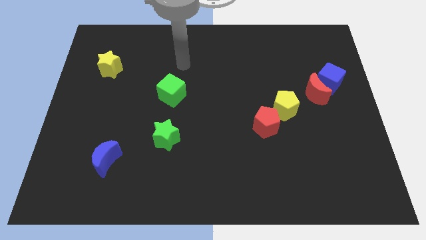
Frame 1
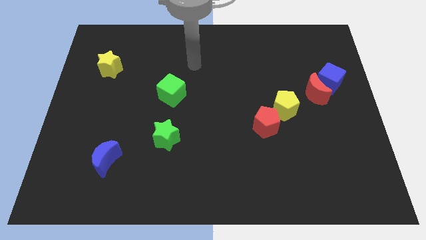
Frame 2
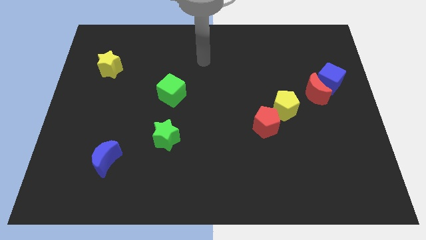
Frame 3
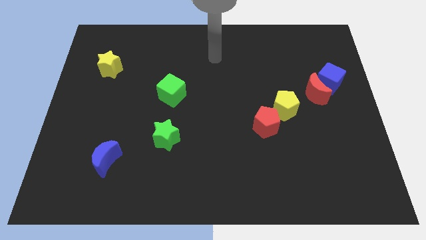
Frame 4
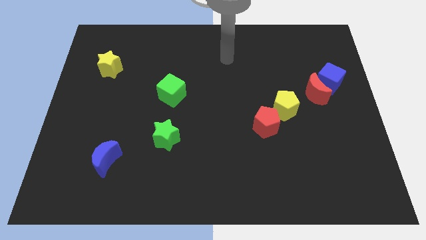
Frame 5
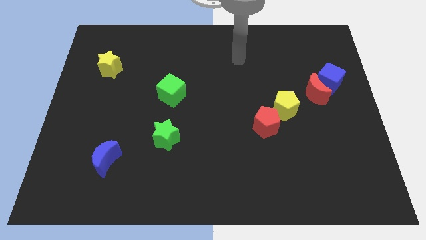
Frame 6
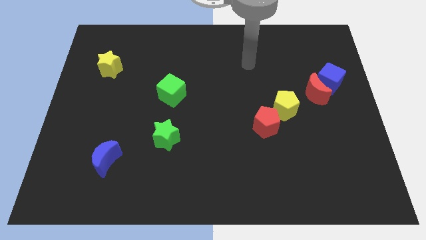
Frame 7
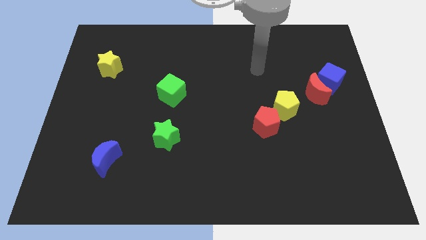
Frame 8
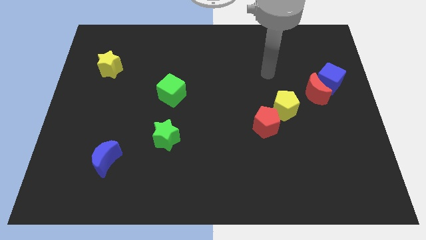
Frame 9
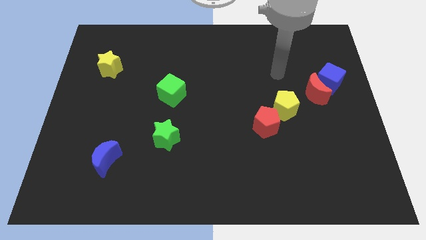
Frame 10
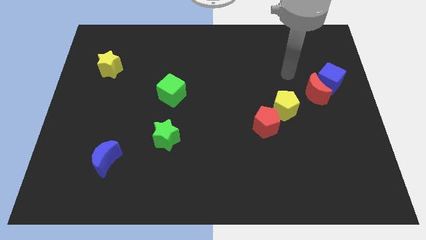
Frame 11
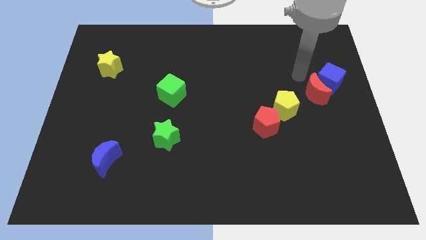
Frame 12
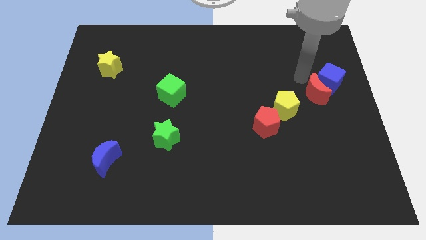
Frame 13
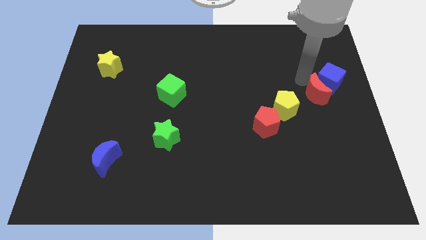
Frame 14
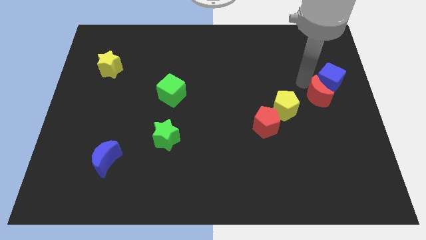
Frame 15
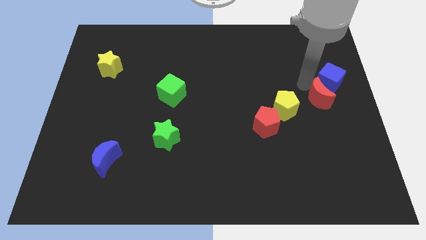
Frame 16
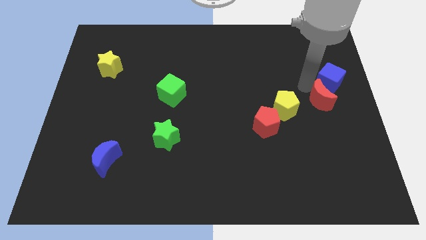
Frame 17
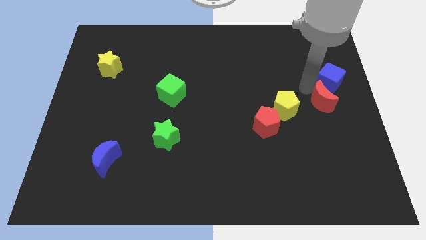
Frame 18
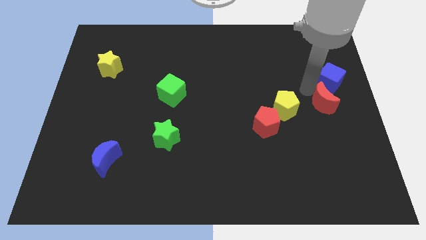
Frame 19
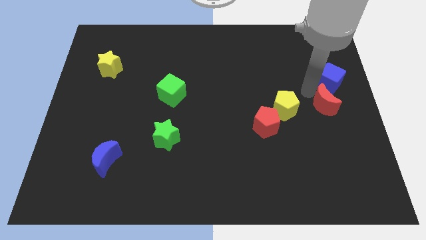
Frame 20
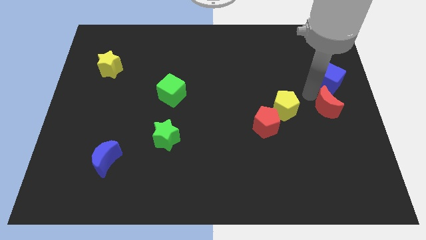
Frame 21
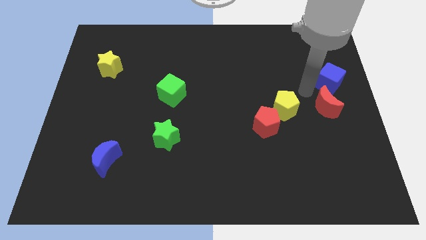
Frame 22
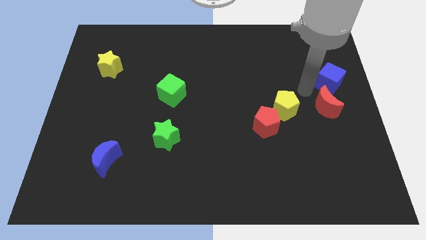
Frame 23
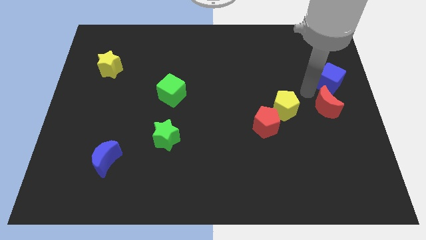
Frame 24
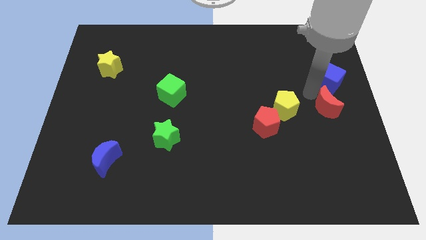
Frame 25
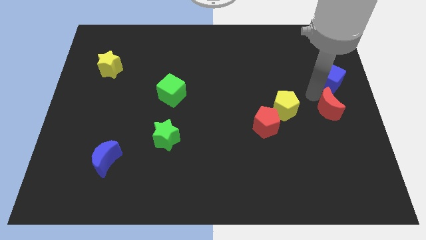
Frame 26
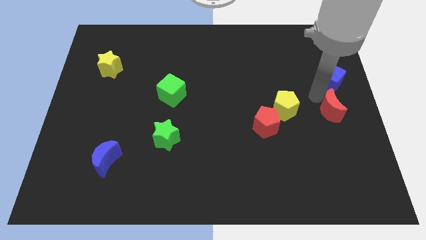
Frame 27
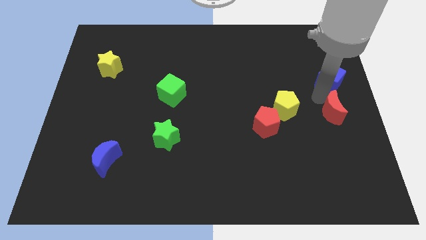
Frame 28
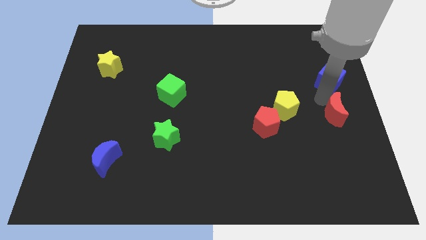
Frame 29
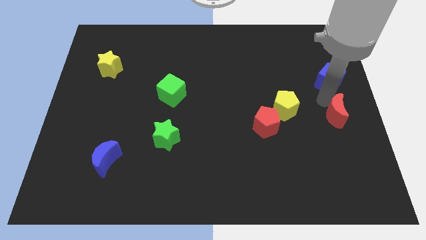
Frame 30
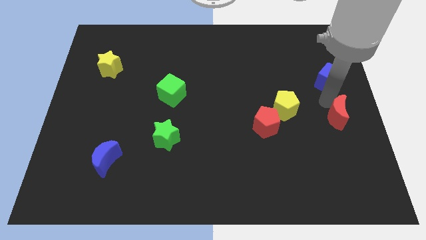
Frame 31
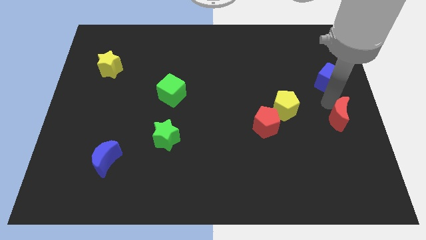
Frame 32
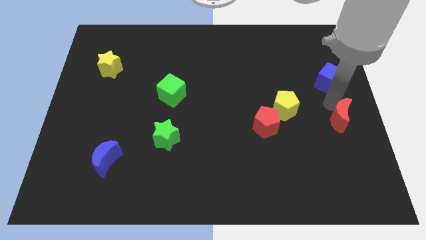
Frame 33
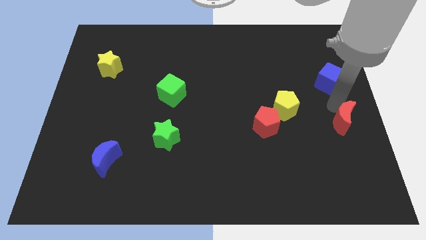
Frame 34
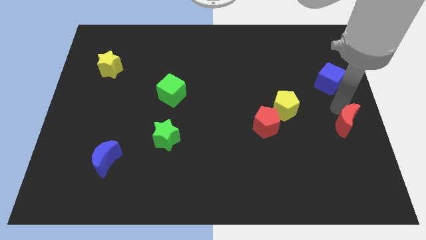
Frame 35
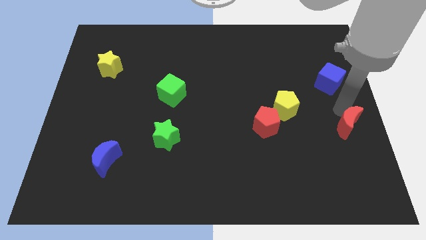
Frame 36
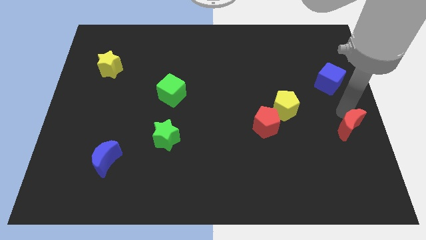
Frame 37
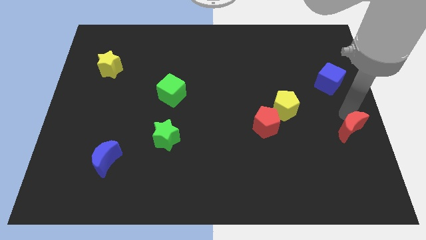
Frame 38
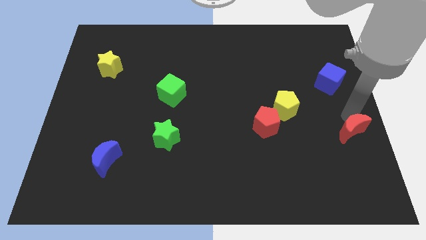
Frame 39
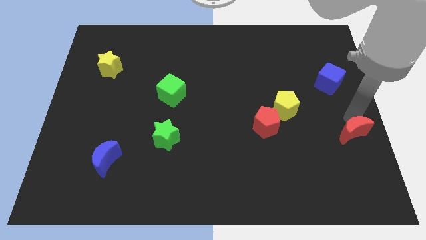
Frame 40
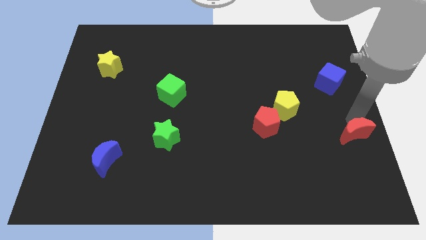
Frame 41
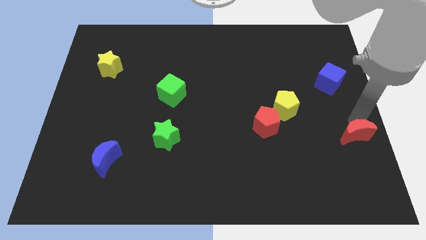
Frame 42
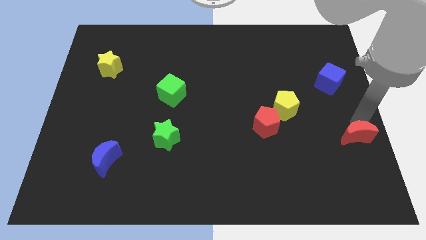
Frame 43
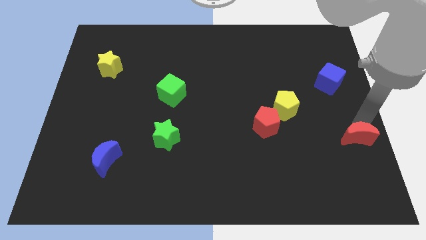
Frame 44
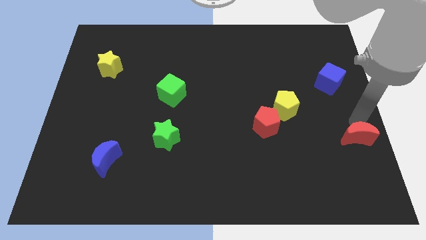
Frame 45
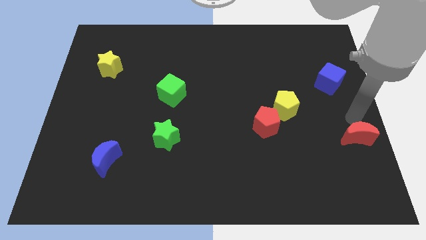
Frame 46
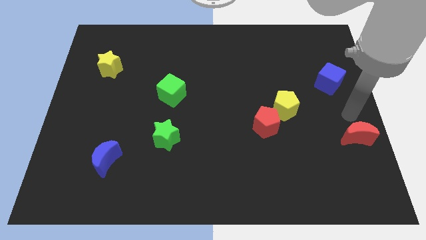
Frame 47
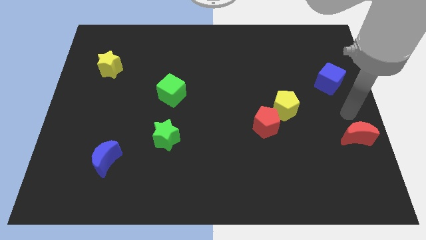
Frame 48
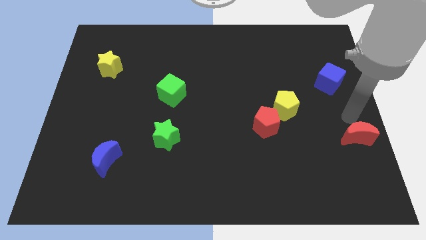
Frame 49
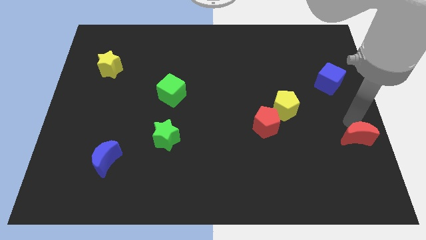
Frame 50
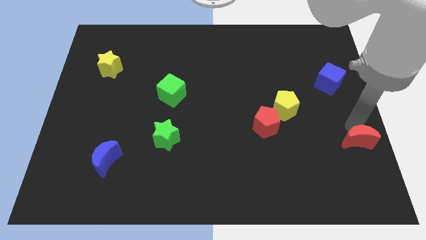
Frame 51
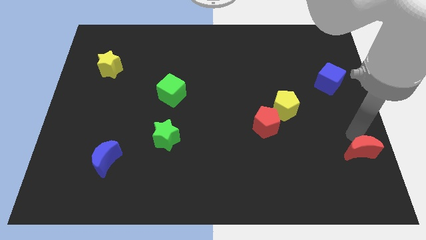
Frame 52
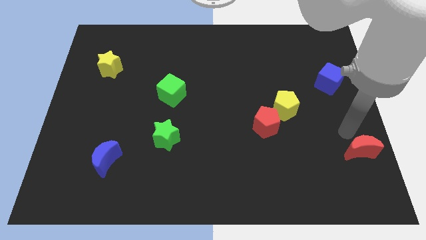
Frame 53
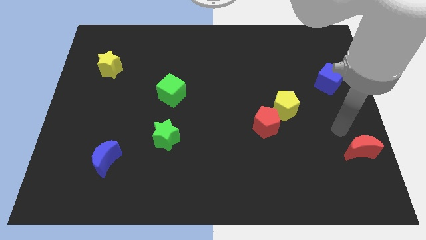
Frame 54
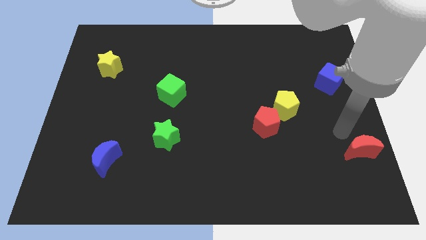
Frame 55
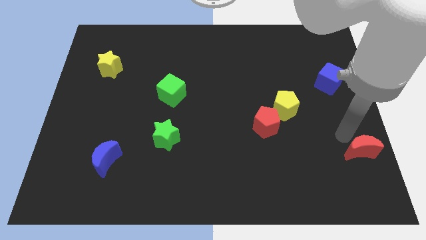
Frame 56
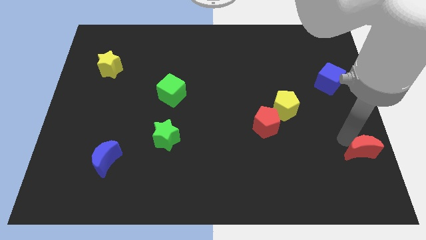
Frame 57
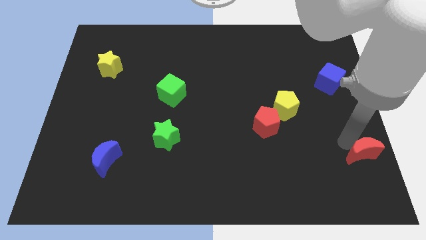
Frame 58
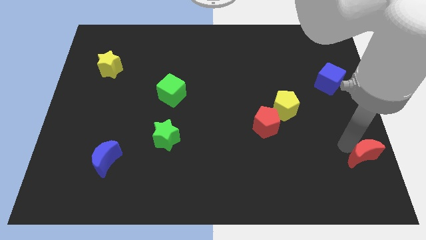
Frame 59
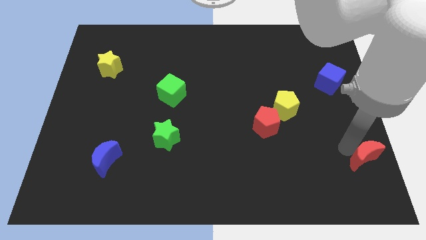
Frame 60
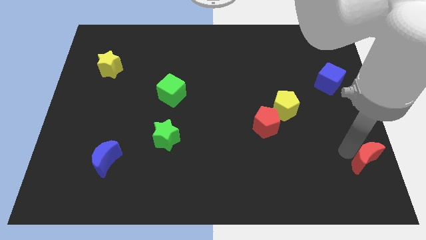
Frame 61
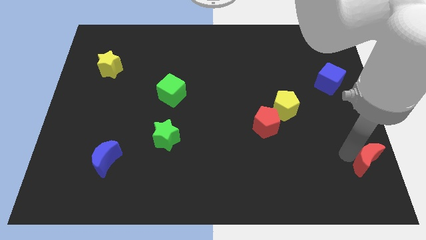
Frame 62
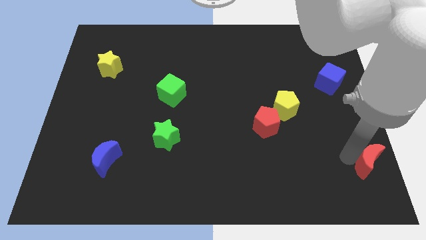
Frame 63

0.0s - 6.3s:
push the red moon to the lower right corner
